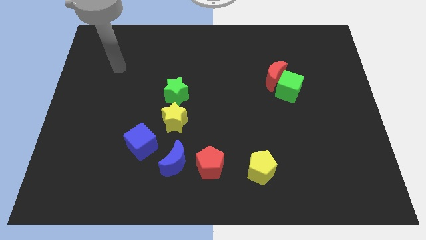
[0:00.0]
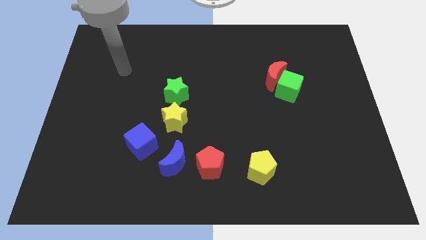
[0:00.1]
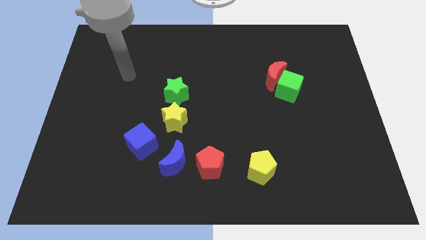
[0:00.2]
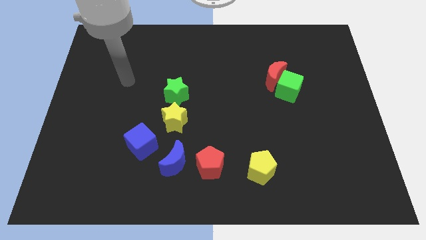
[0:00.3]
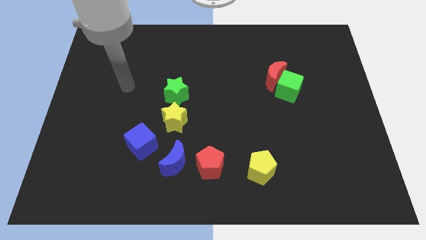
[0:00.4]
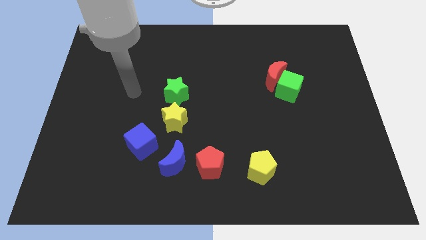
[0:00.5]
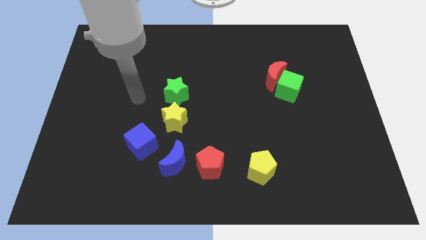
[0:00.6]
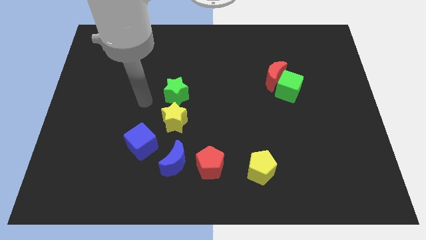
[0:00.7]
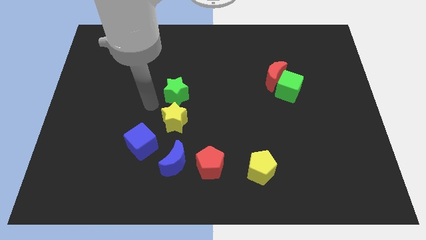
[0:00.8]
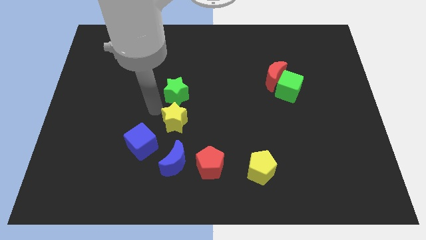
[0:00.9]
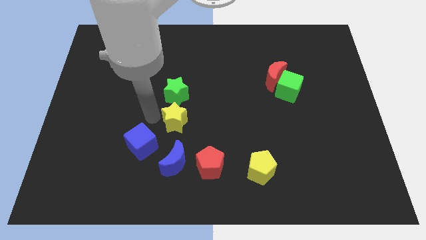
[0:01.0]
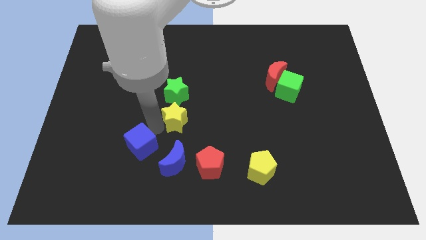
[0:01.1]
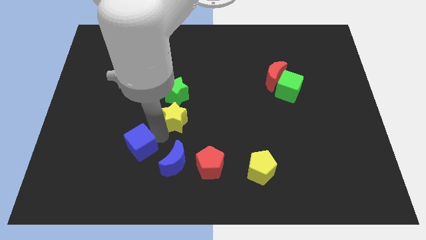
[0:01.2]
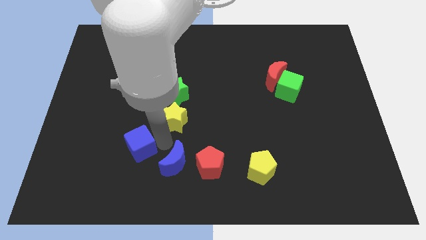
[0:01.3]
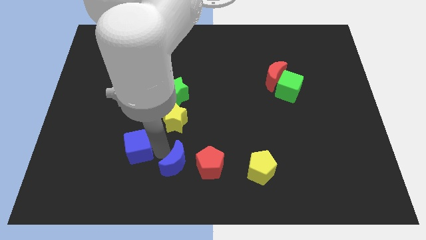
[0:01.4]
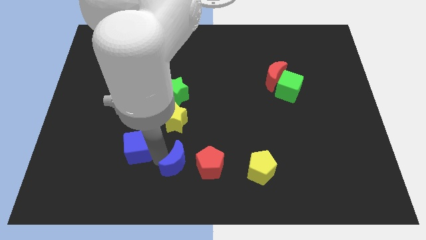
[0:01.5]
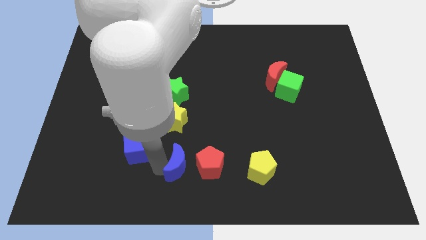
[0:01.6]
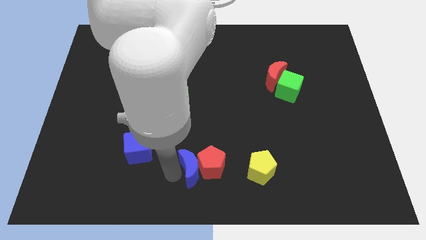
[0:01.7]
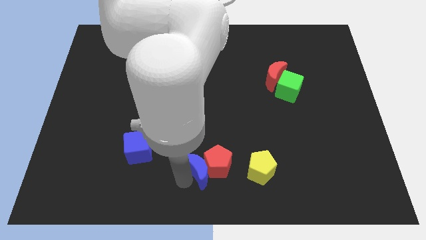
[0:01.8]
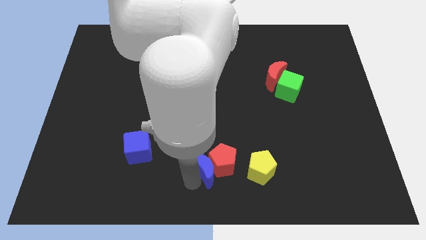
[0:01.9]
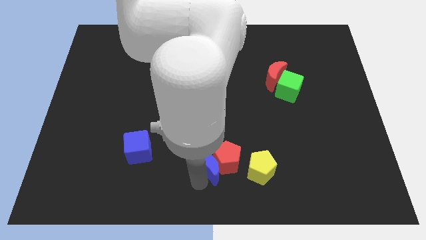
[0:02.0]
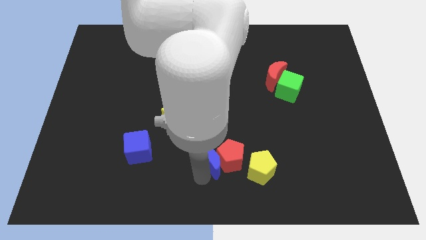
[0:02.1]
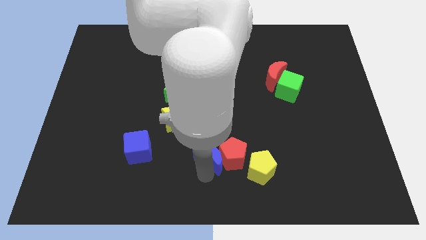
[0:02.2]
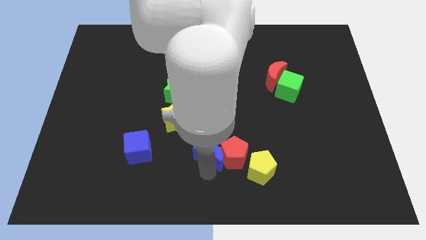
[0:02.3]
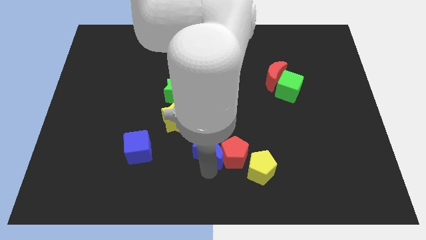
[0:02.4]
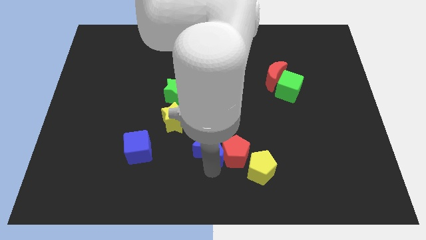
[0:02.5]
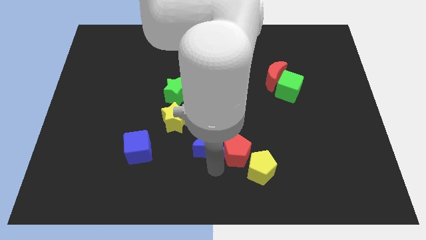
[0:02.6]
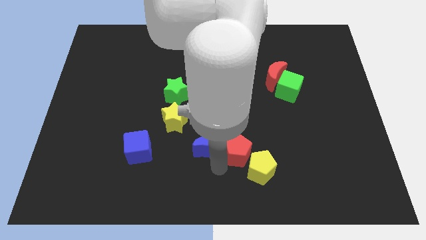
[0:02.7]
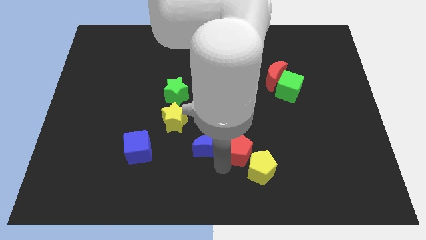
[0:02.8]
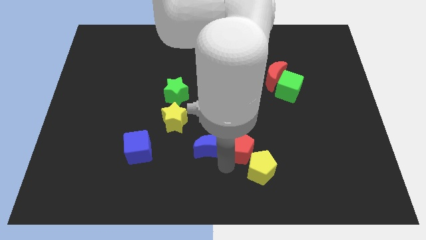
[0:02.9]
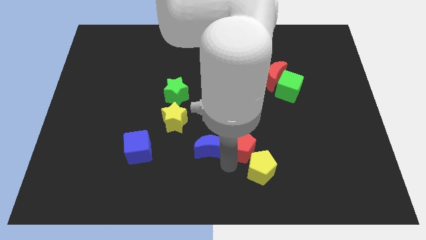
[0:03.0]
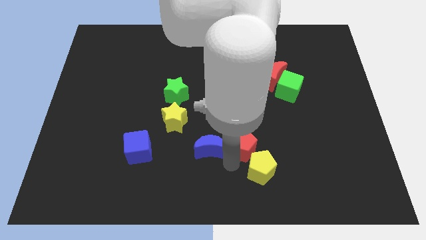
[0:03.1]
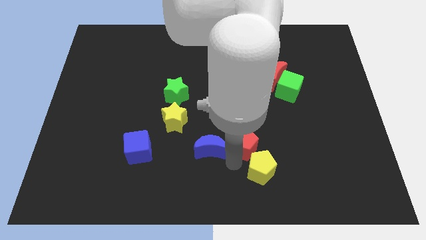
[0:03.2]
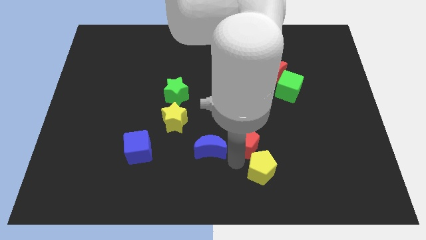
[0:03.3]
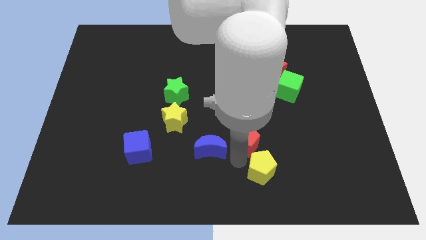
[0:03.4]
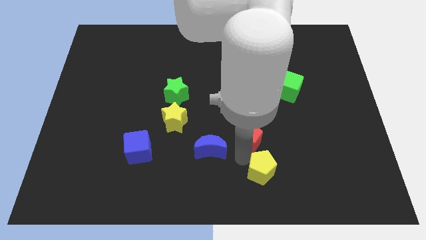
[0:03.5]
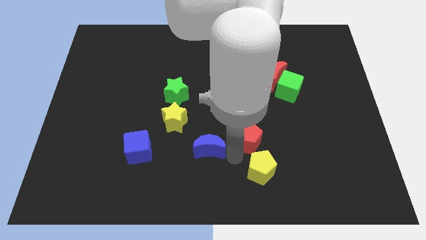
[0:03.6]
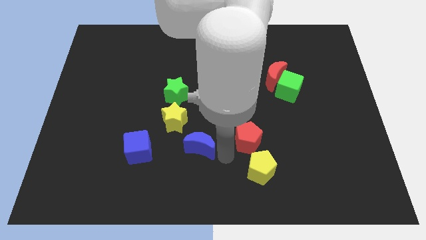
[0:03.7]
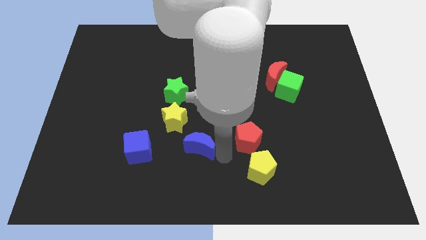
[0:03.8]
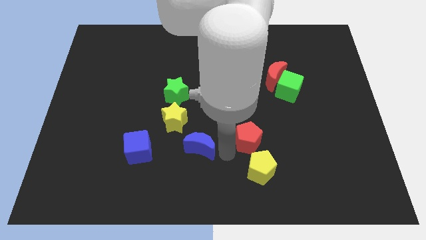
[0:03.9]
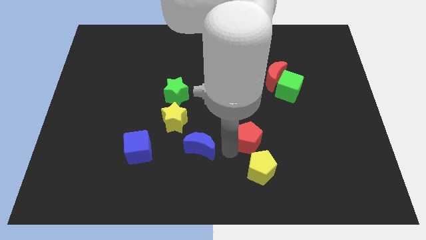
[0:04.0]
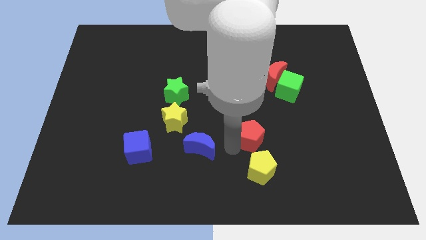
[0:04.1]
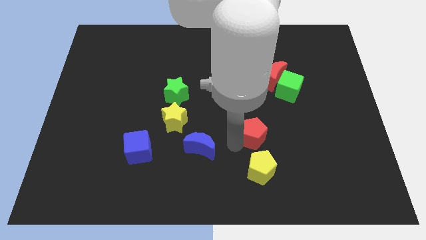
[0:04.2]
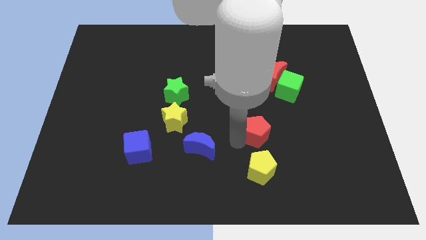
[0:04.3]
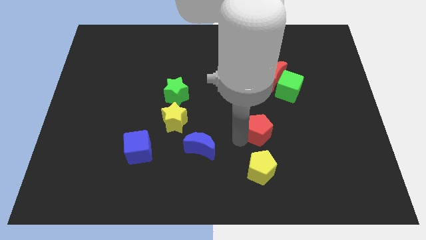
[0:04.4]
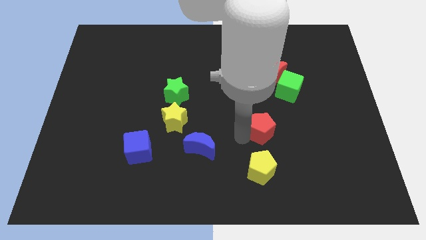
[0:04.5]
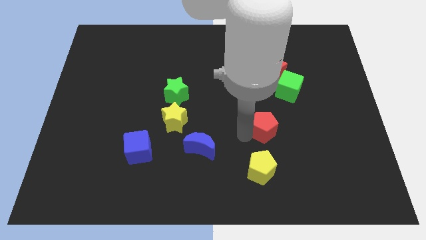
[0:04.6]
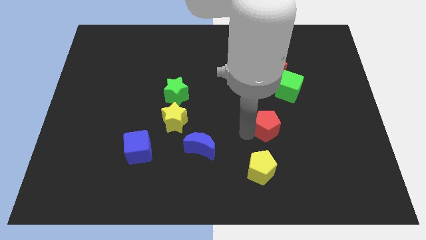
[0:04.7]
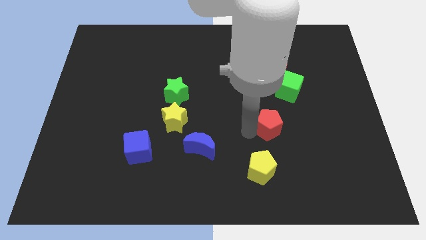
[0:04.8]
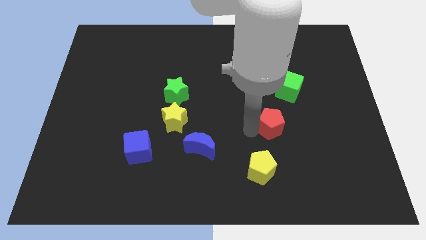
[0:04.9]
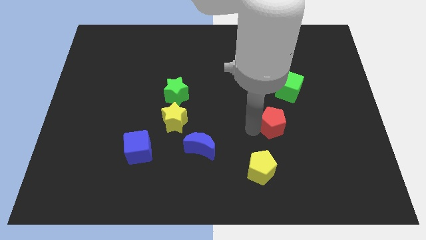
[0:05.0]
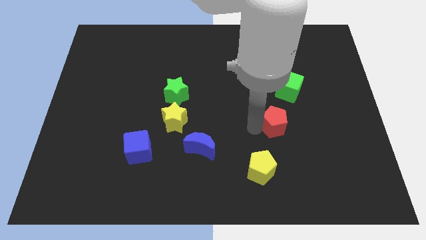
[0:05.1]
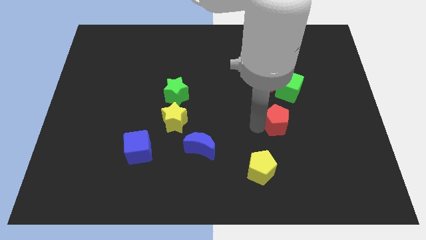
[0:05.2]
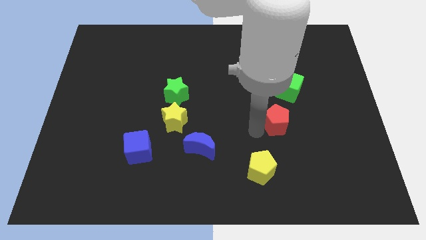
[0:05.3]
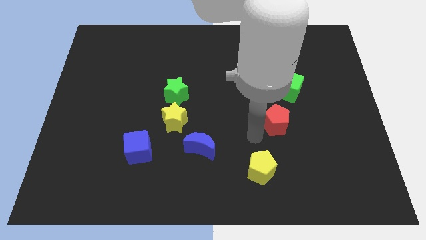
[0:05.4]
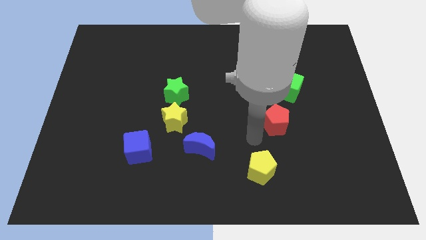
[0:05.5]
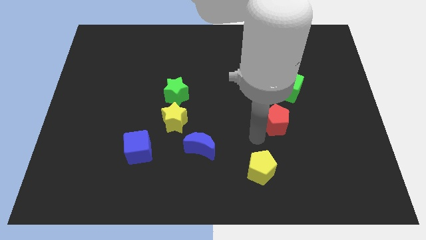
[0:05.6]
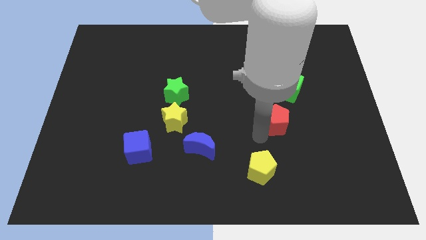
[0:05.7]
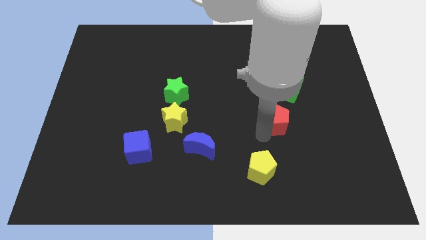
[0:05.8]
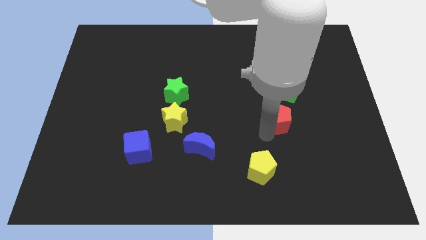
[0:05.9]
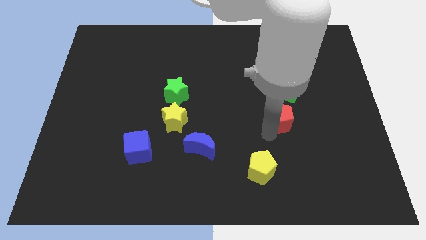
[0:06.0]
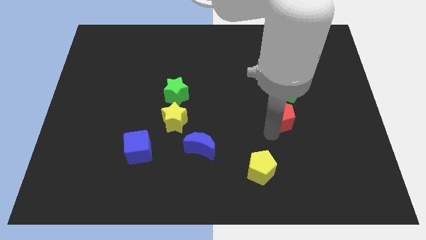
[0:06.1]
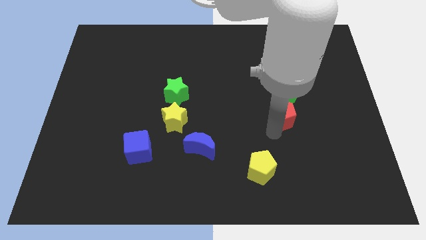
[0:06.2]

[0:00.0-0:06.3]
move the red pentagon up and right diagonally

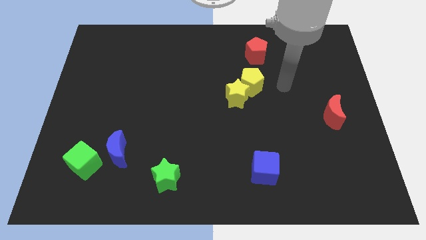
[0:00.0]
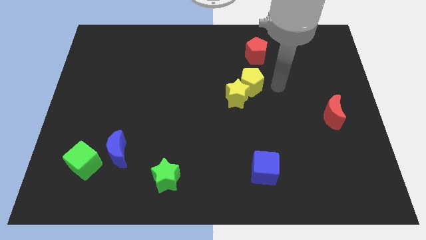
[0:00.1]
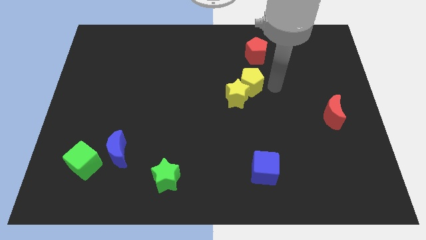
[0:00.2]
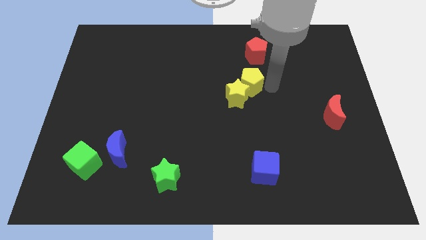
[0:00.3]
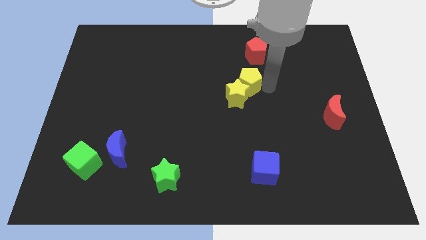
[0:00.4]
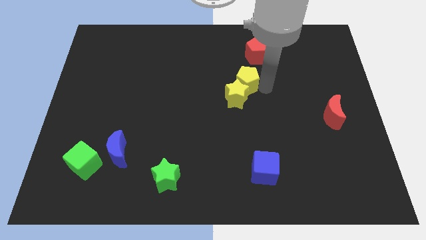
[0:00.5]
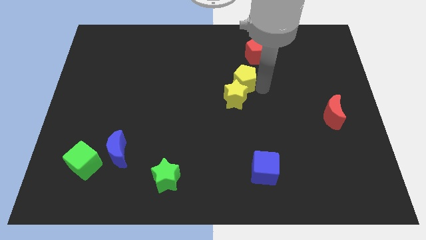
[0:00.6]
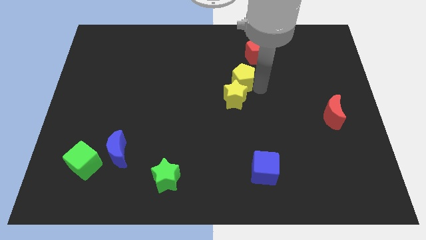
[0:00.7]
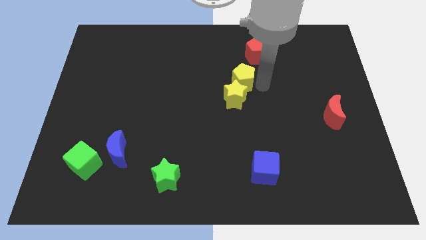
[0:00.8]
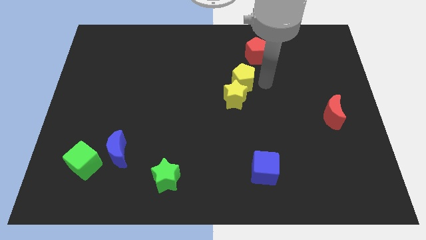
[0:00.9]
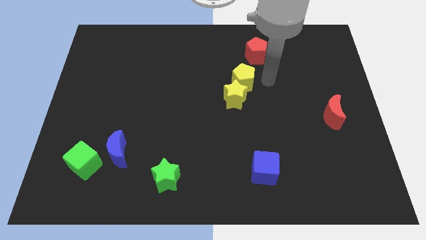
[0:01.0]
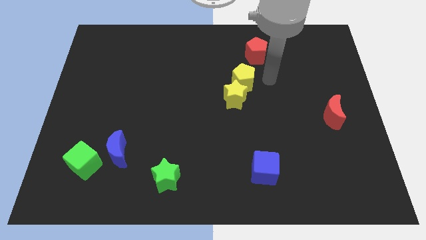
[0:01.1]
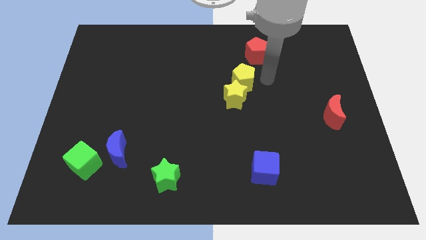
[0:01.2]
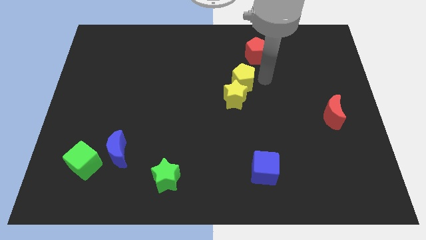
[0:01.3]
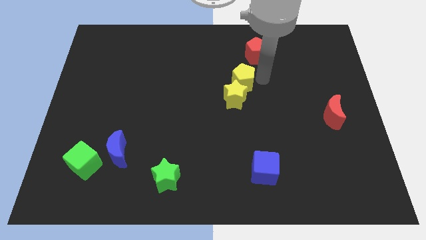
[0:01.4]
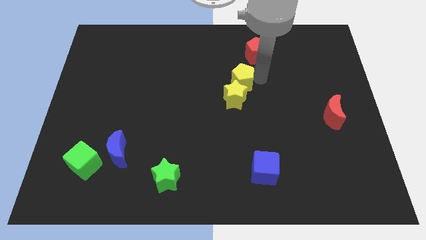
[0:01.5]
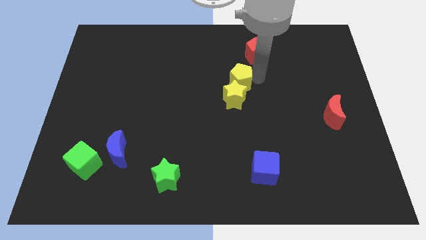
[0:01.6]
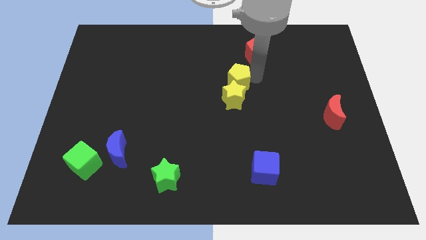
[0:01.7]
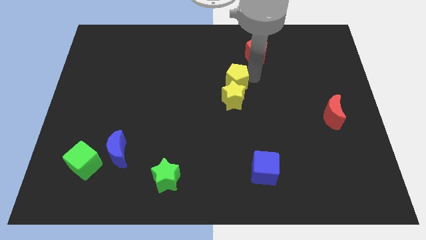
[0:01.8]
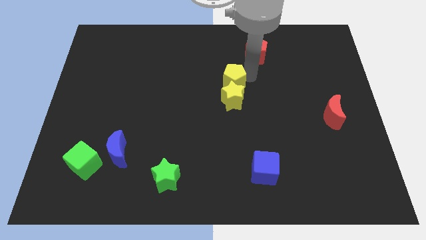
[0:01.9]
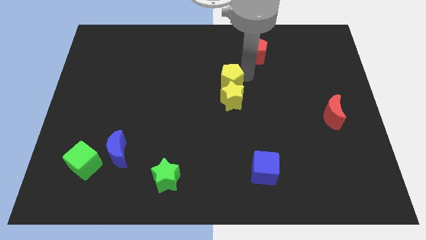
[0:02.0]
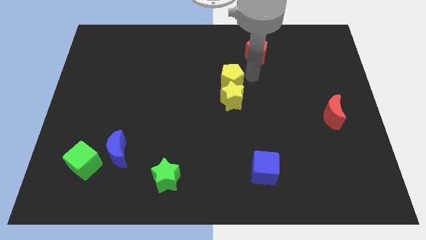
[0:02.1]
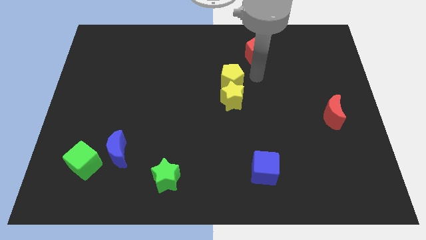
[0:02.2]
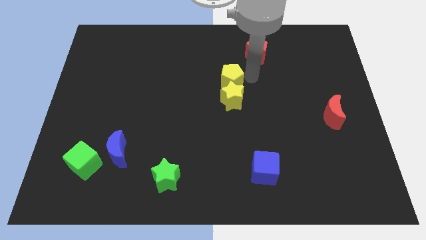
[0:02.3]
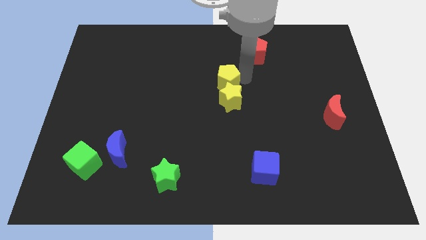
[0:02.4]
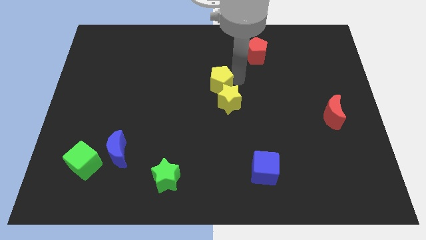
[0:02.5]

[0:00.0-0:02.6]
push the yellow pentagon slightly to the left
